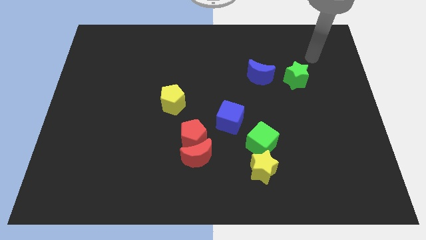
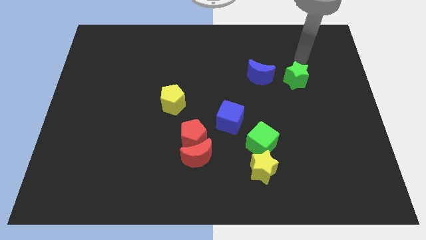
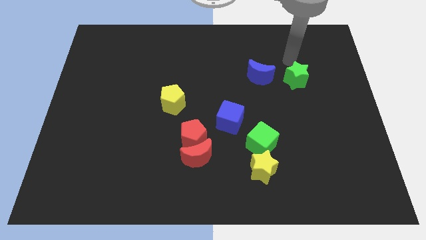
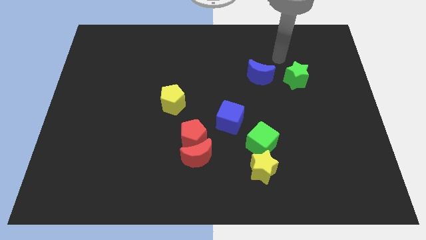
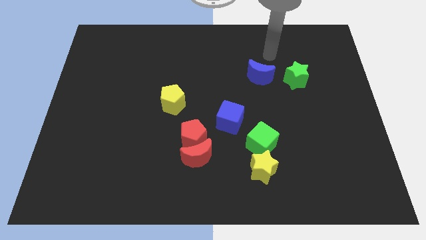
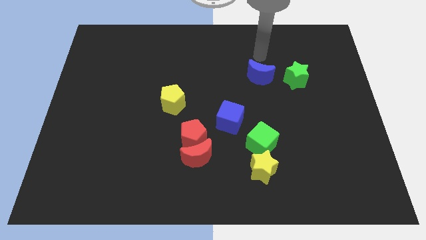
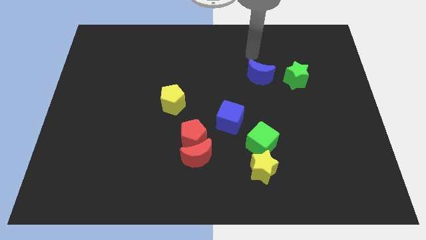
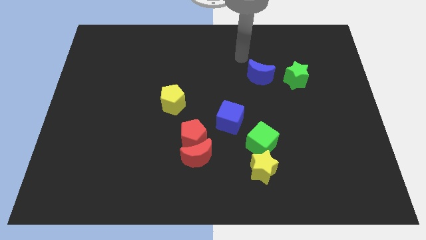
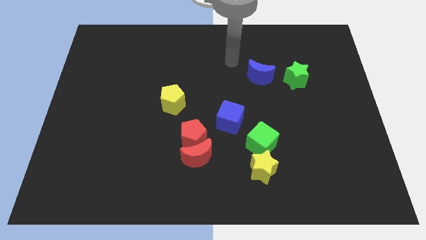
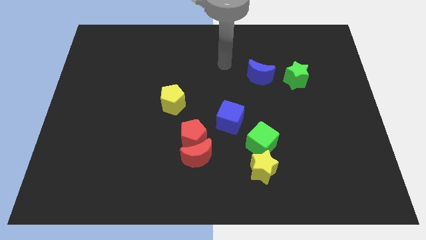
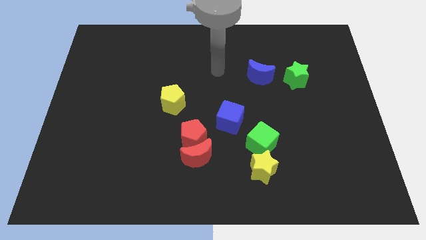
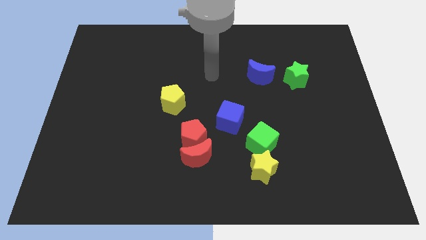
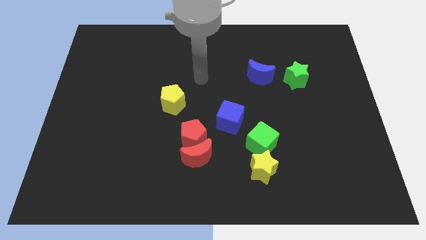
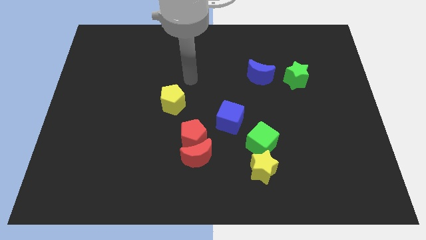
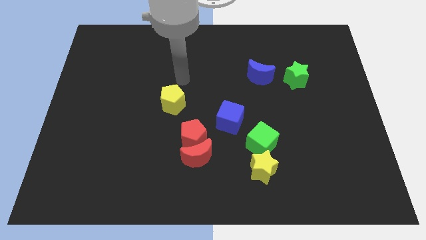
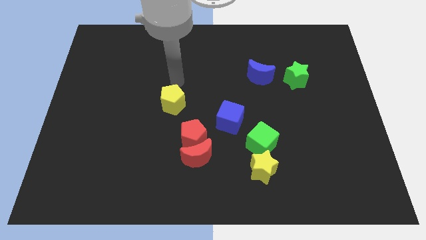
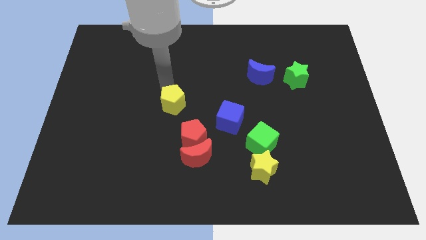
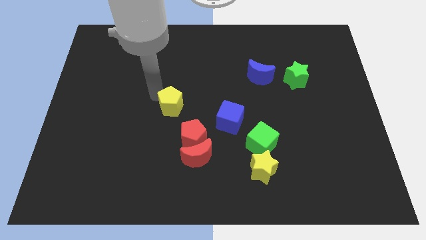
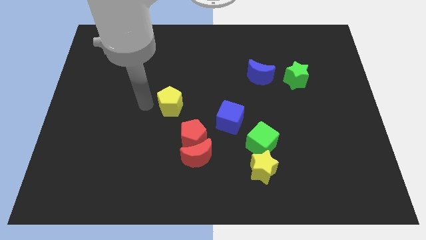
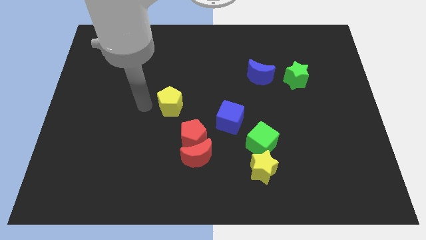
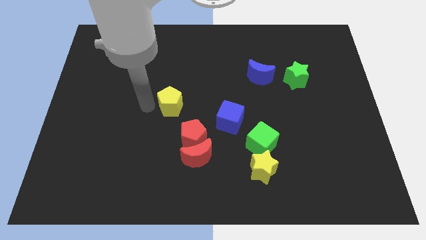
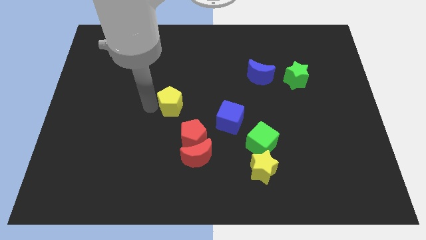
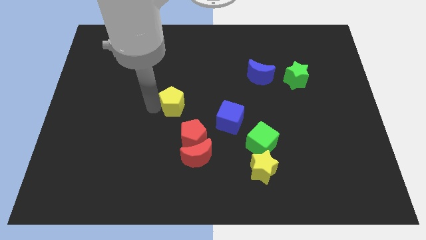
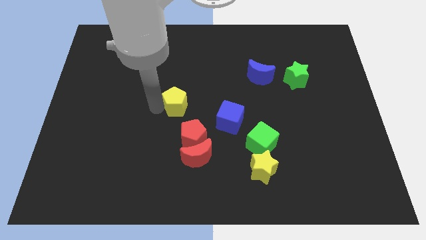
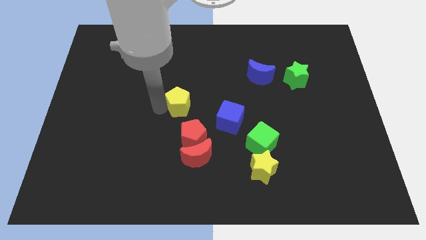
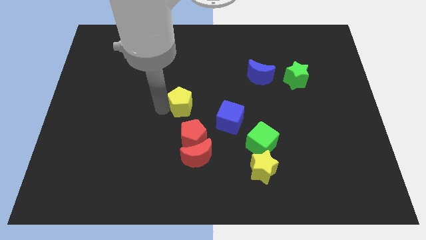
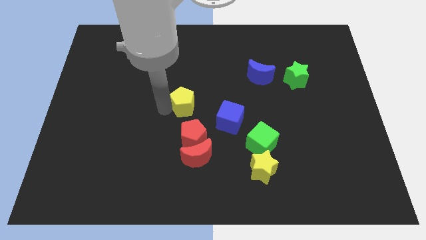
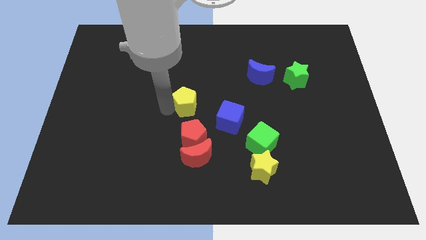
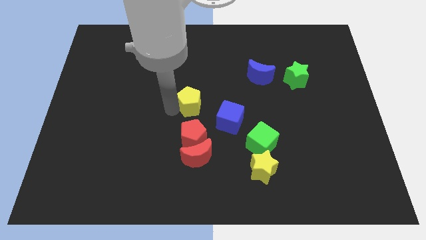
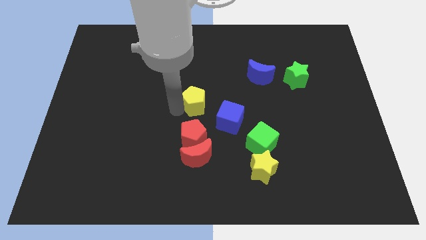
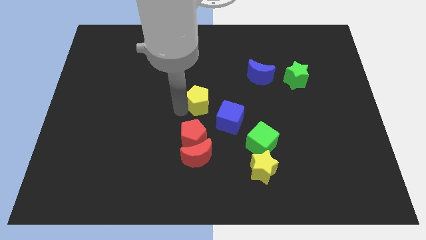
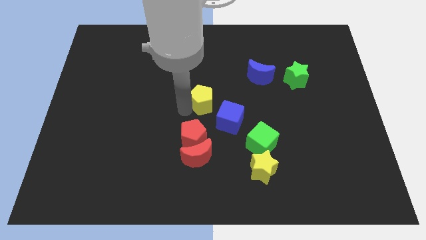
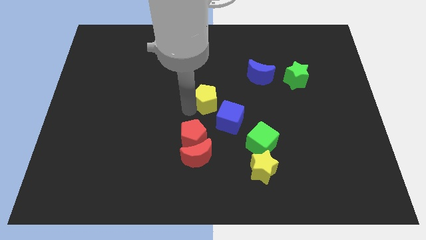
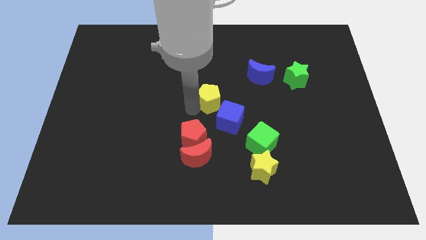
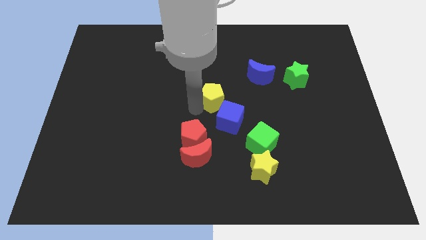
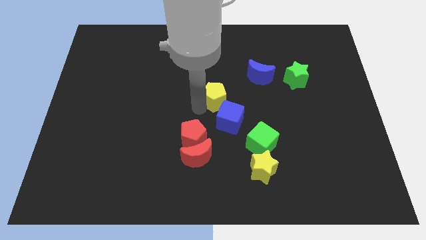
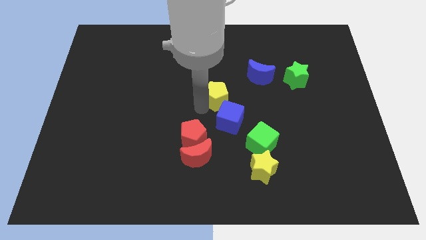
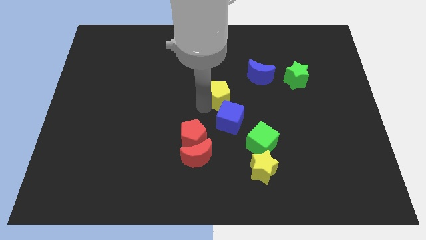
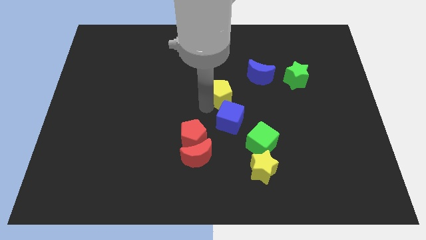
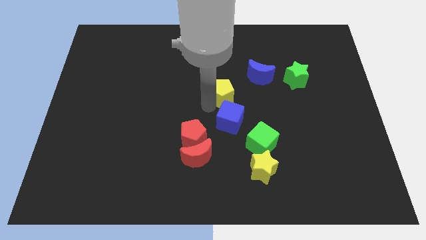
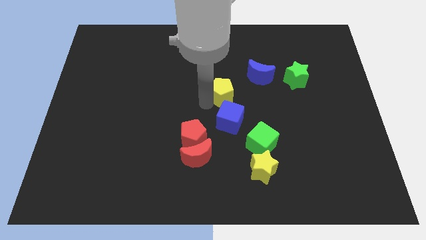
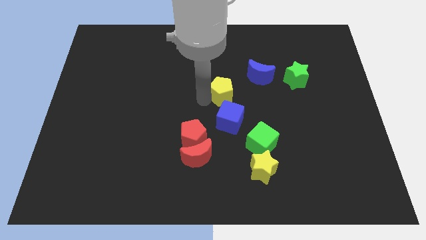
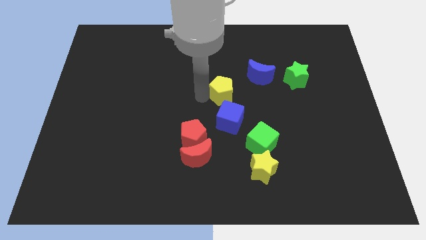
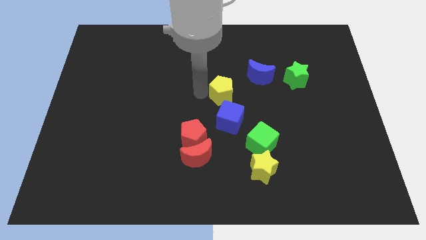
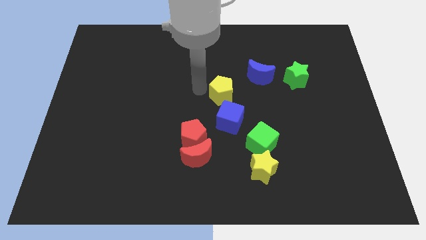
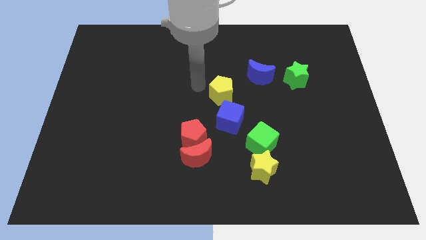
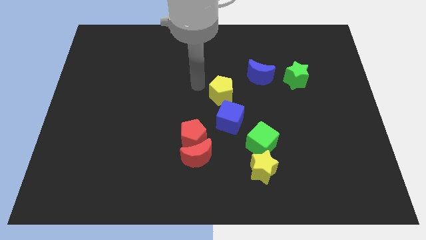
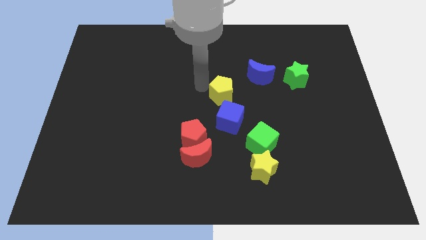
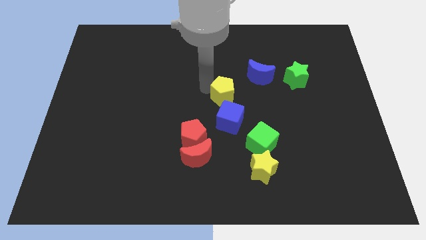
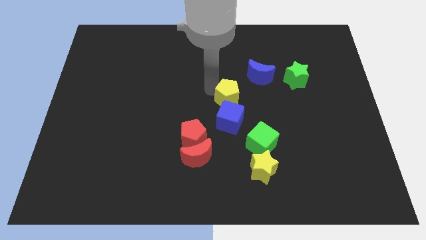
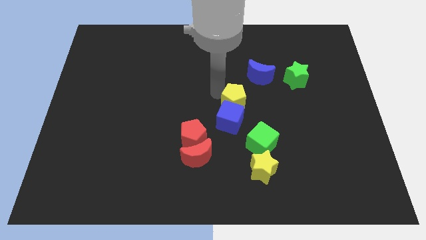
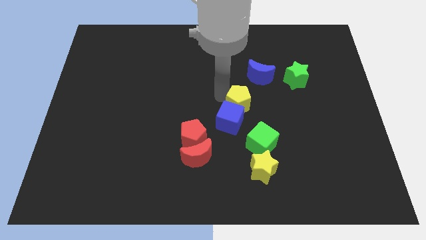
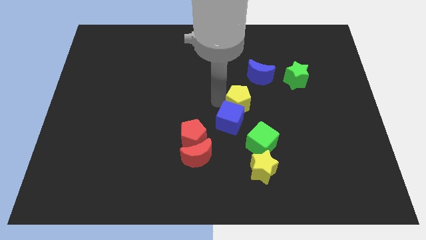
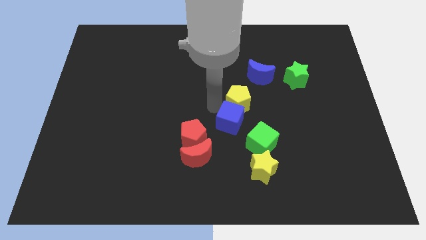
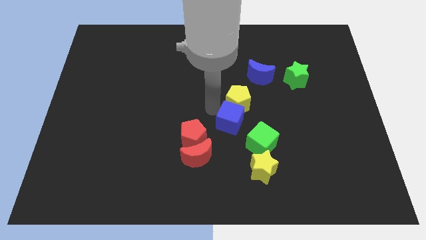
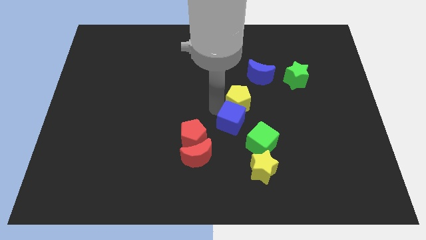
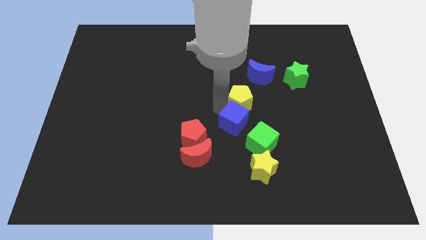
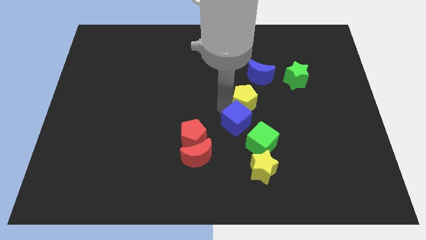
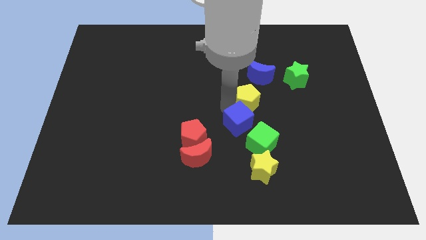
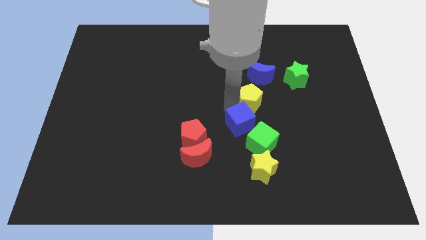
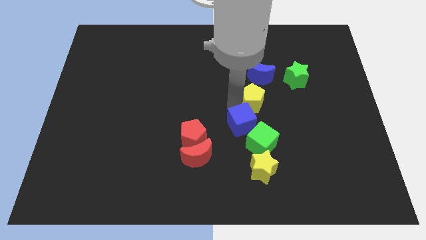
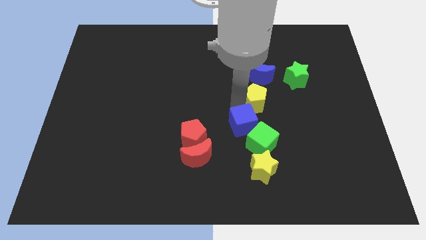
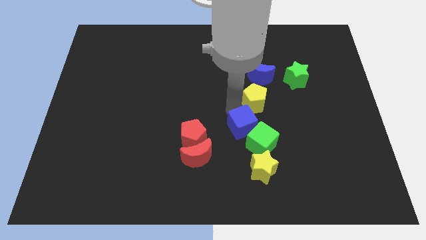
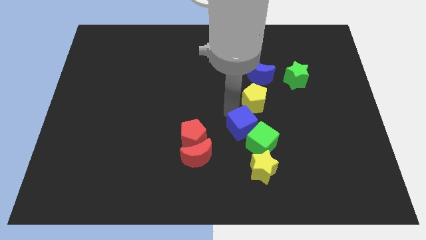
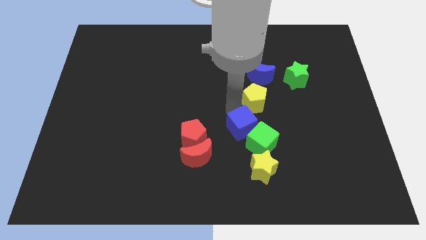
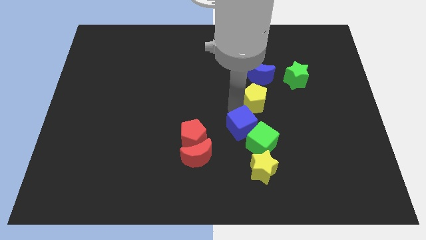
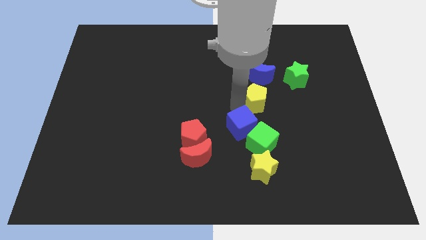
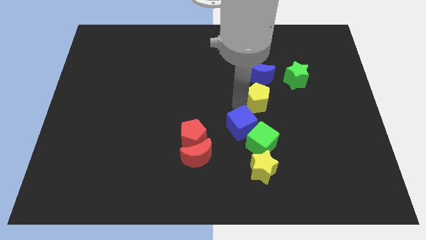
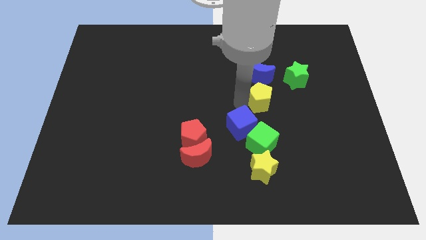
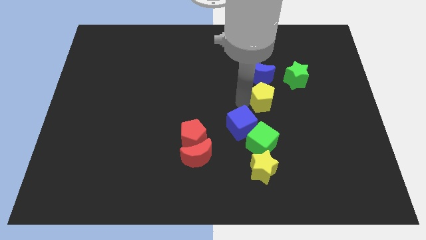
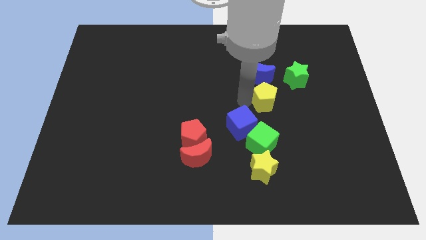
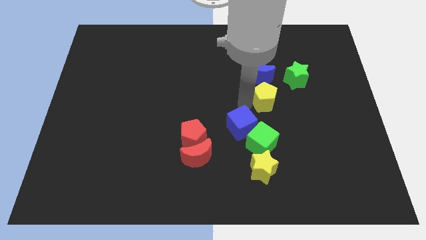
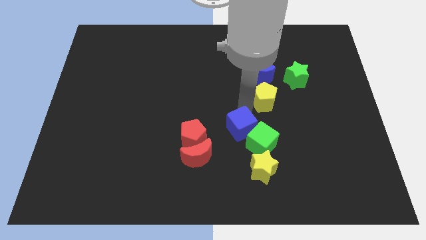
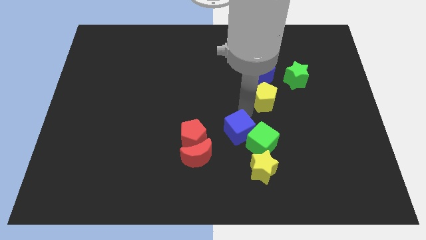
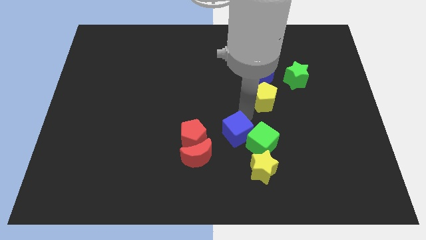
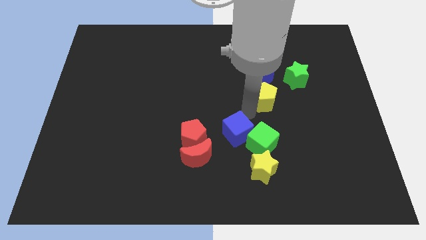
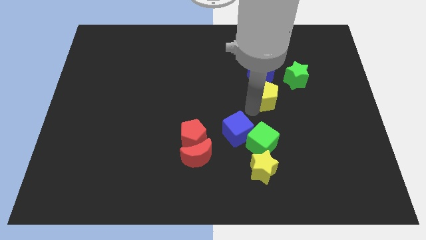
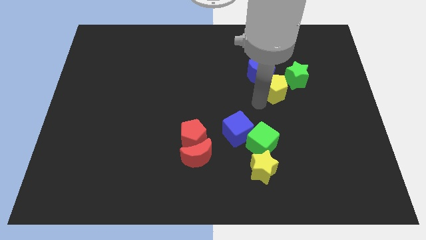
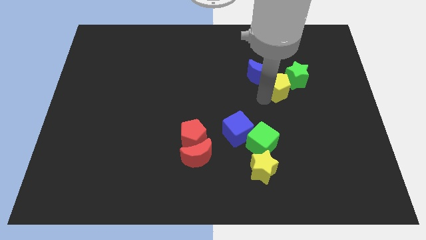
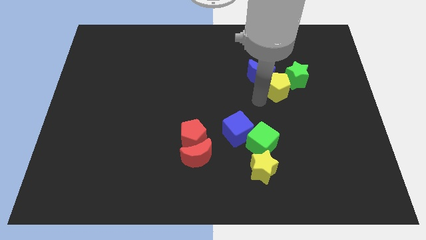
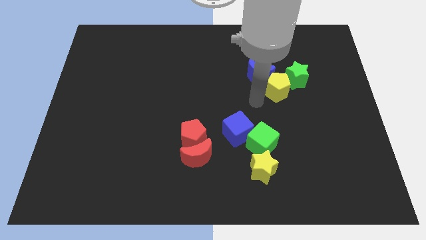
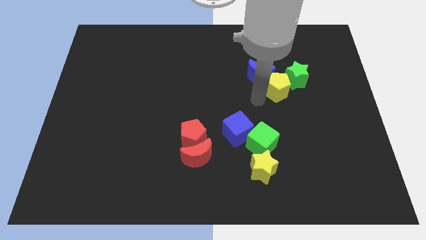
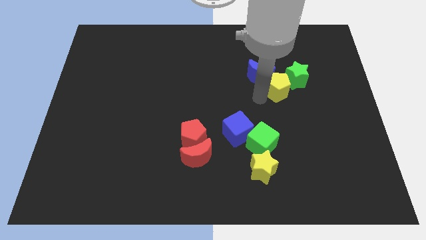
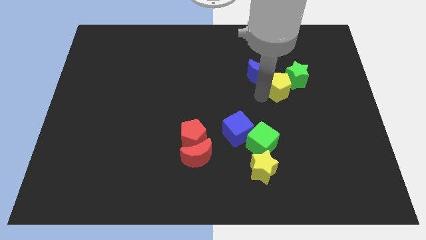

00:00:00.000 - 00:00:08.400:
push the yellow pentagon next to the green star
